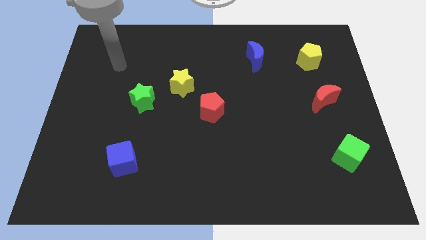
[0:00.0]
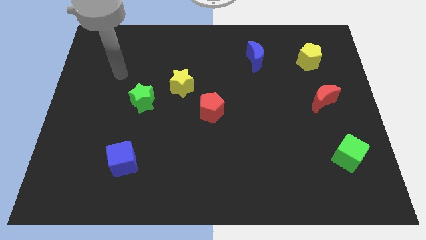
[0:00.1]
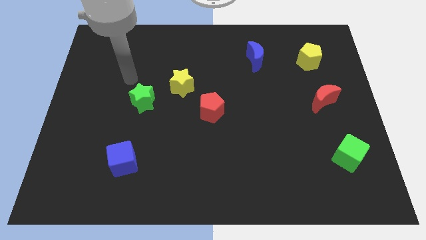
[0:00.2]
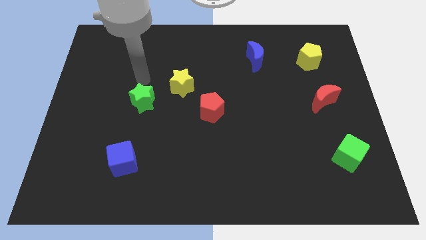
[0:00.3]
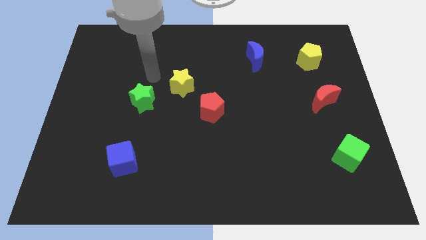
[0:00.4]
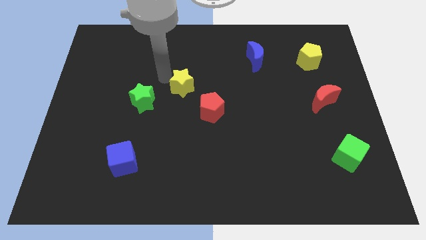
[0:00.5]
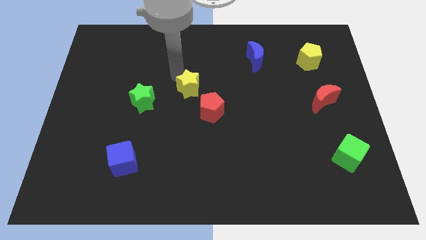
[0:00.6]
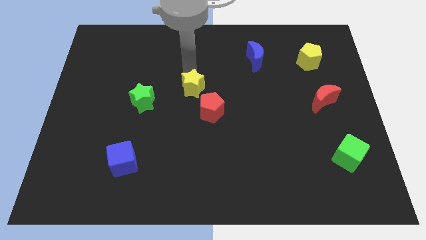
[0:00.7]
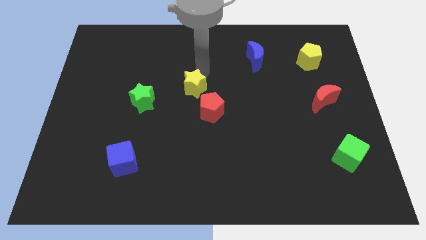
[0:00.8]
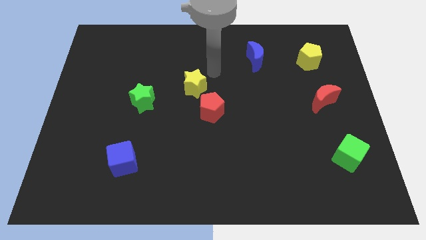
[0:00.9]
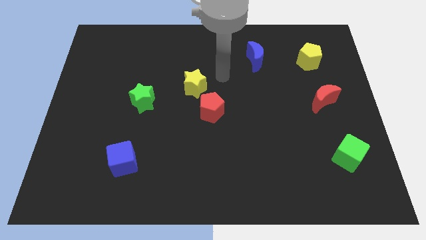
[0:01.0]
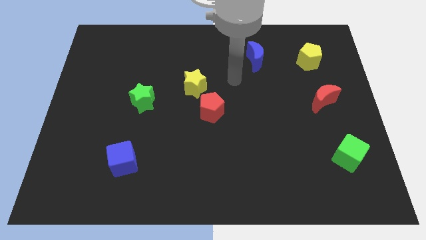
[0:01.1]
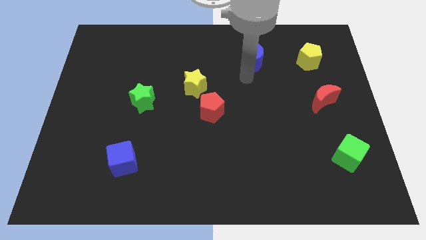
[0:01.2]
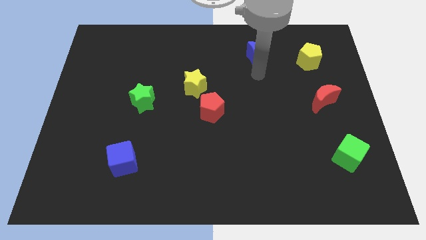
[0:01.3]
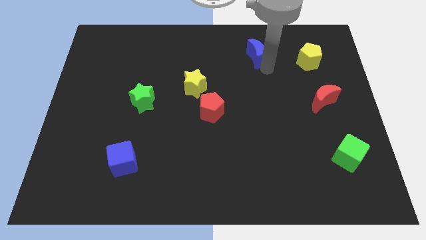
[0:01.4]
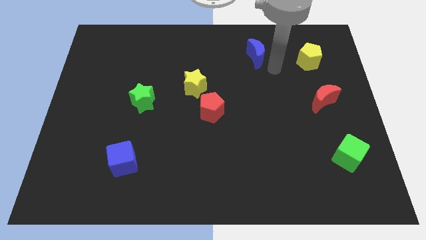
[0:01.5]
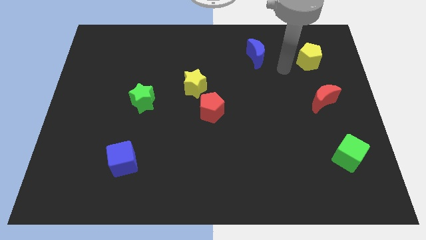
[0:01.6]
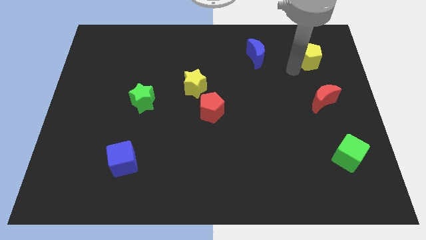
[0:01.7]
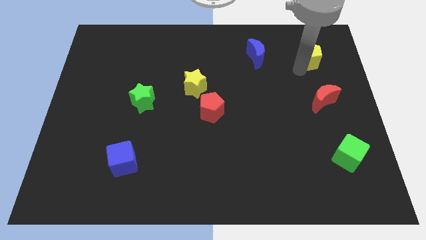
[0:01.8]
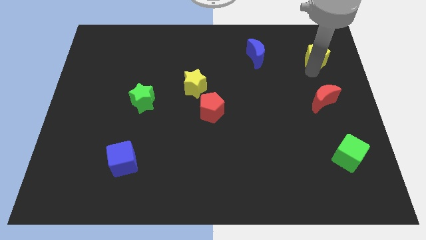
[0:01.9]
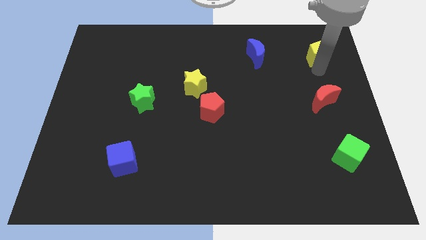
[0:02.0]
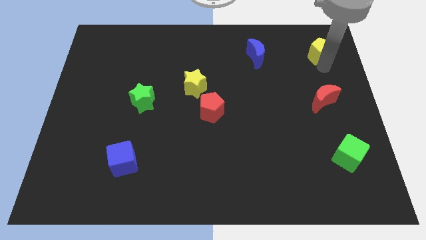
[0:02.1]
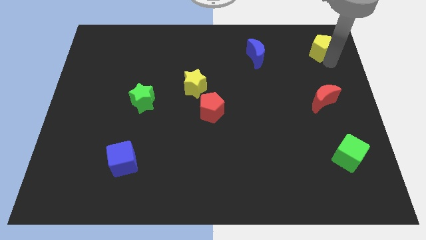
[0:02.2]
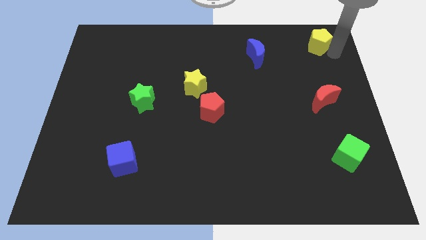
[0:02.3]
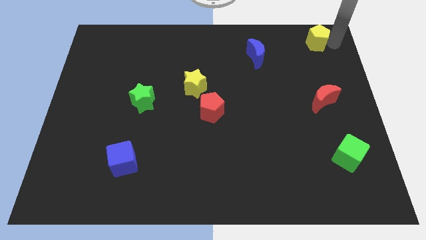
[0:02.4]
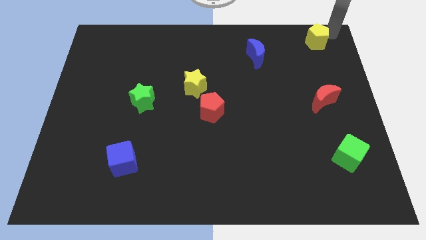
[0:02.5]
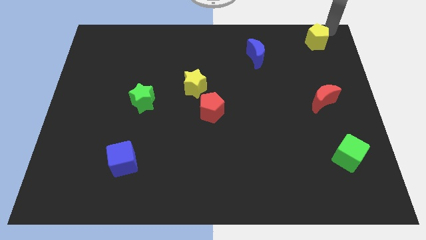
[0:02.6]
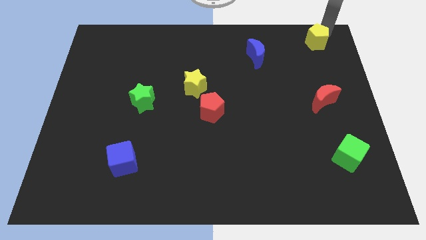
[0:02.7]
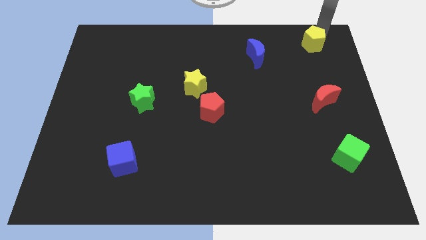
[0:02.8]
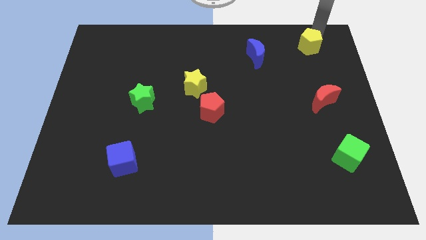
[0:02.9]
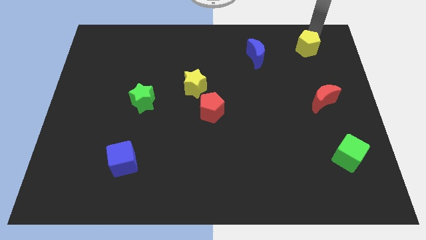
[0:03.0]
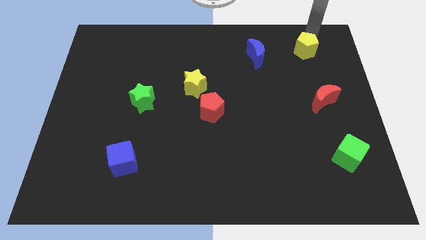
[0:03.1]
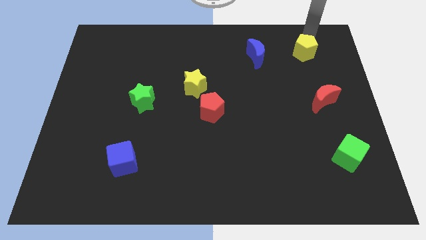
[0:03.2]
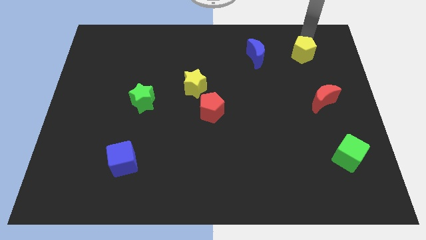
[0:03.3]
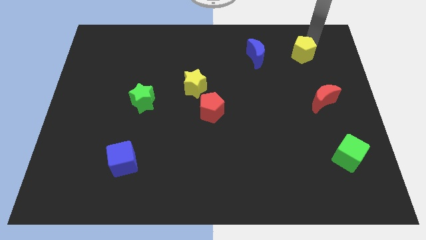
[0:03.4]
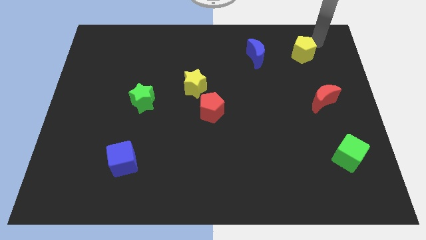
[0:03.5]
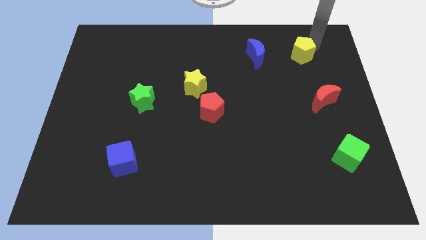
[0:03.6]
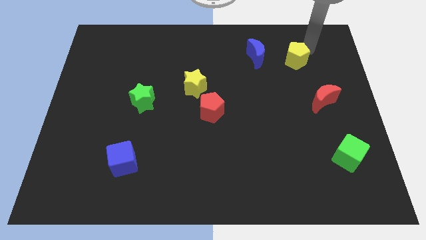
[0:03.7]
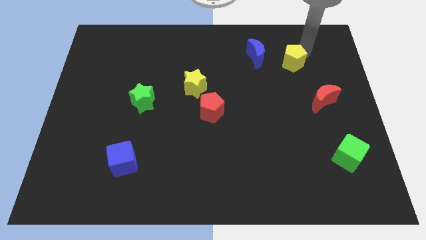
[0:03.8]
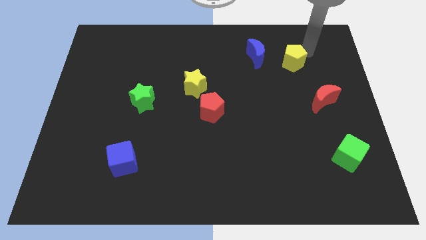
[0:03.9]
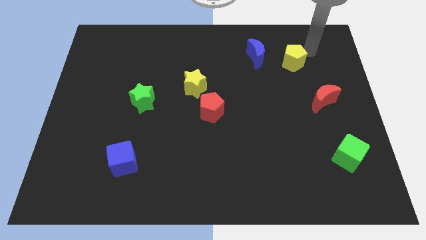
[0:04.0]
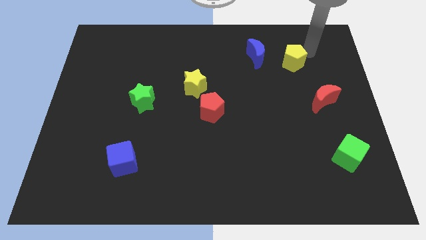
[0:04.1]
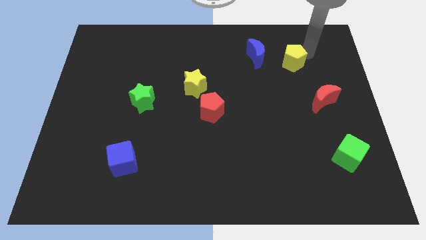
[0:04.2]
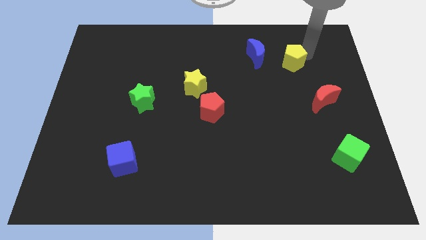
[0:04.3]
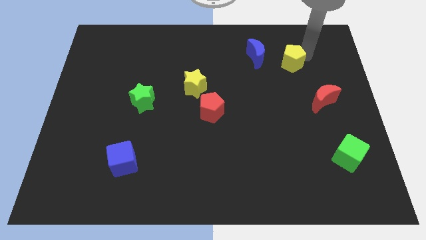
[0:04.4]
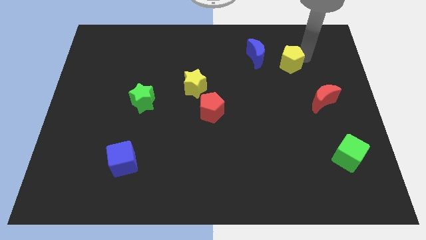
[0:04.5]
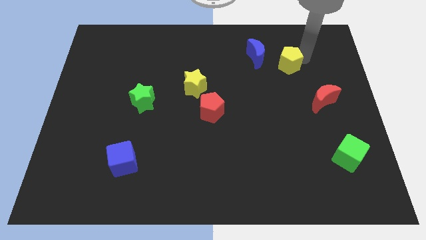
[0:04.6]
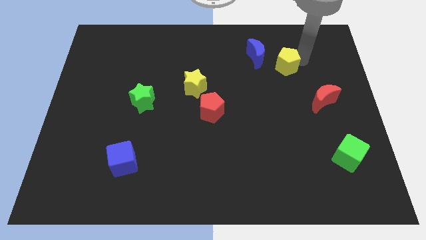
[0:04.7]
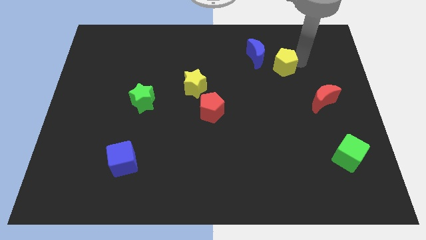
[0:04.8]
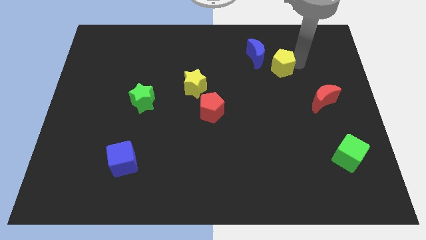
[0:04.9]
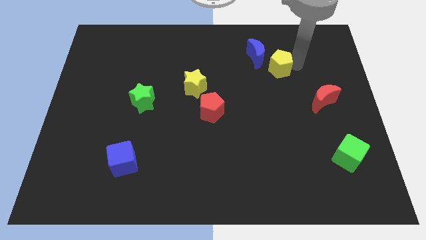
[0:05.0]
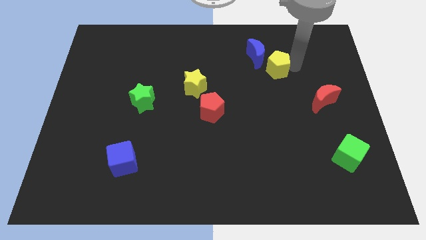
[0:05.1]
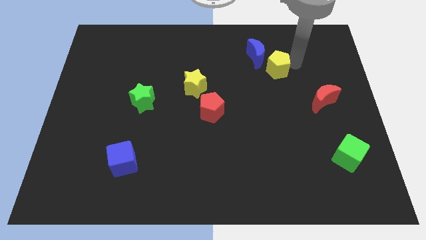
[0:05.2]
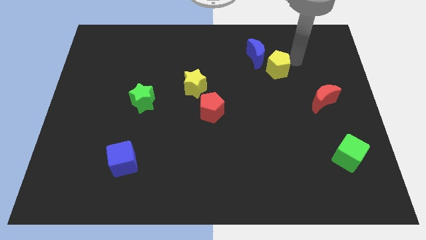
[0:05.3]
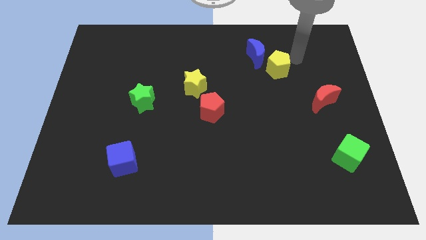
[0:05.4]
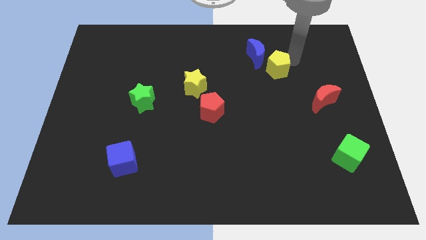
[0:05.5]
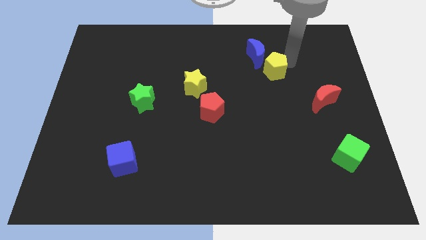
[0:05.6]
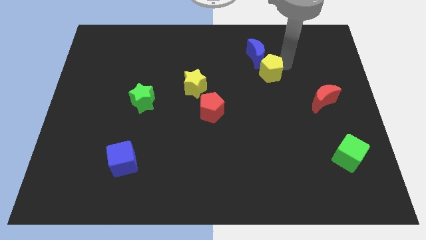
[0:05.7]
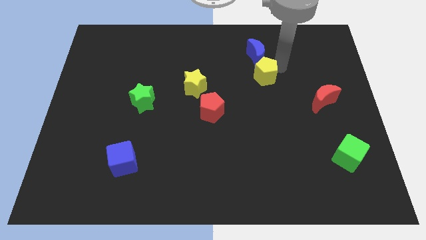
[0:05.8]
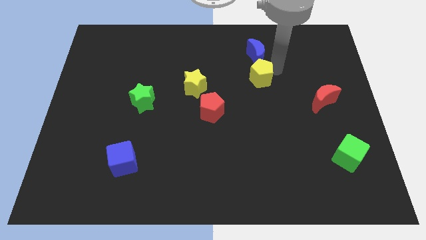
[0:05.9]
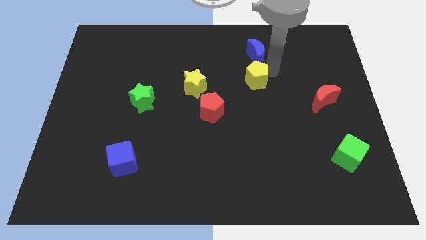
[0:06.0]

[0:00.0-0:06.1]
move the yellow pentagon right of the yellow star
